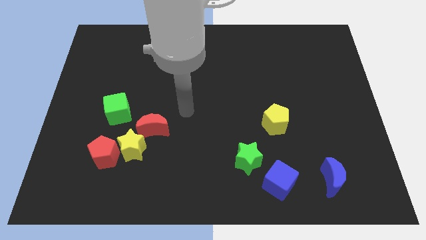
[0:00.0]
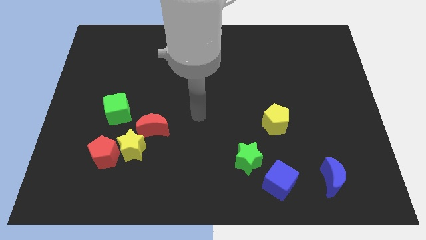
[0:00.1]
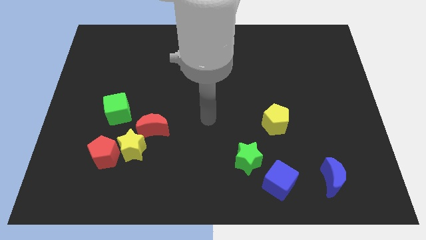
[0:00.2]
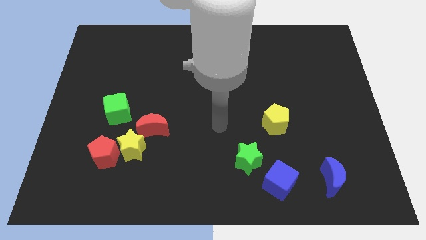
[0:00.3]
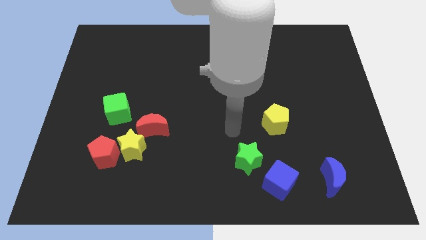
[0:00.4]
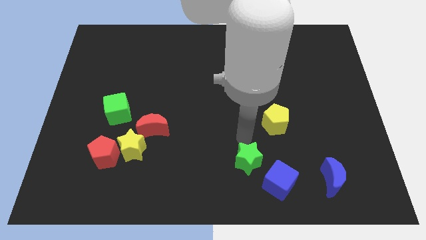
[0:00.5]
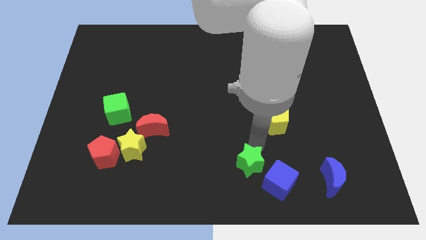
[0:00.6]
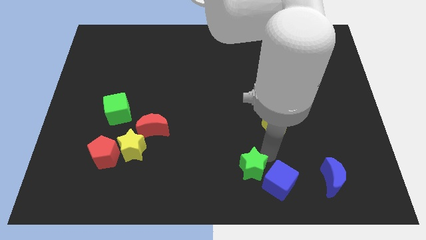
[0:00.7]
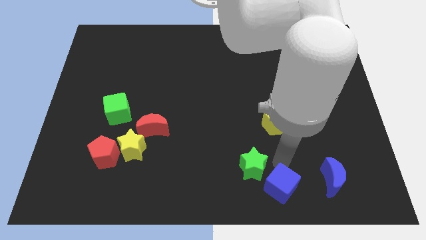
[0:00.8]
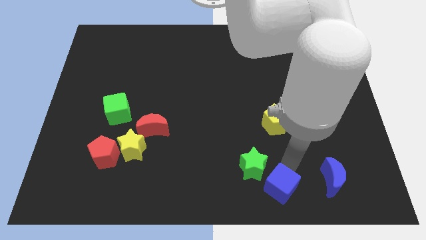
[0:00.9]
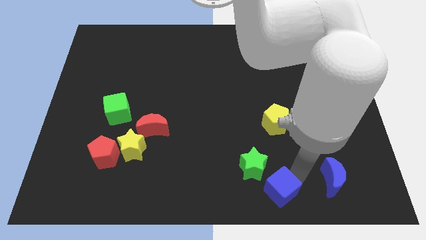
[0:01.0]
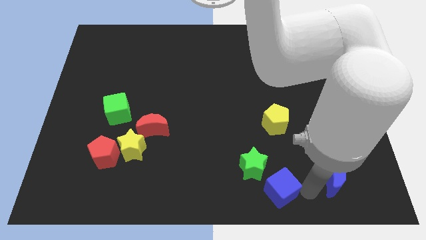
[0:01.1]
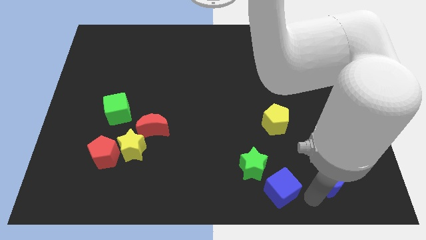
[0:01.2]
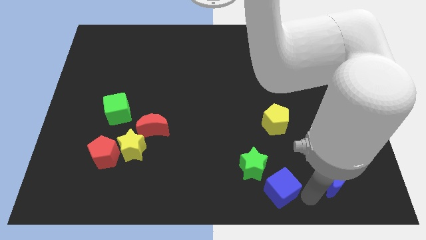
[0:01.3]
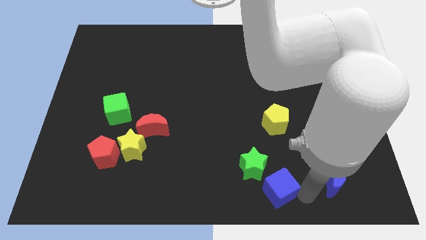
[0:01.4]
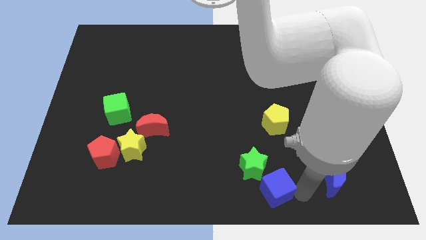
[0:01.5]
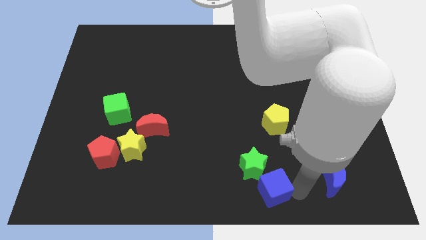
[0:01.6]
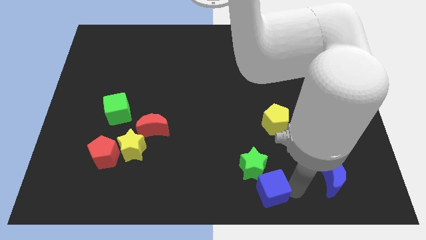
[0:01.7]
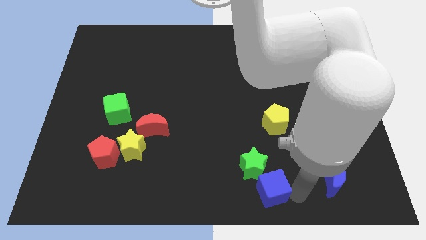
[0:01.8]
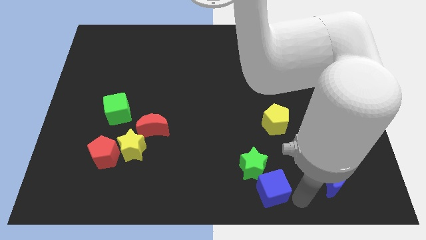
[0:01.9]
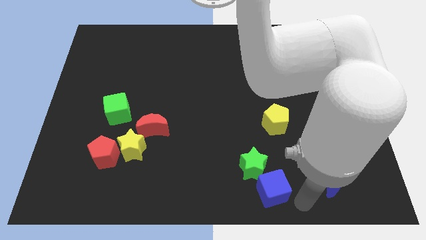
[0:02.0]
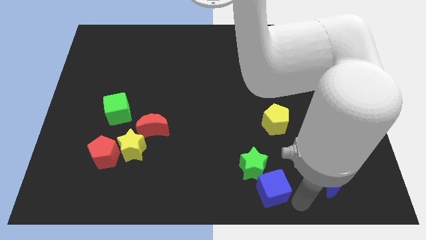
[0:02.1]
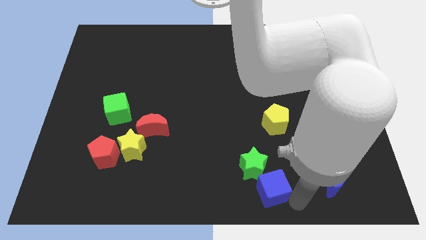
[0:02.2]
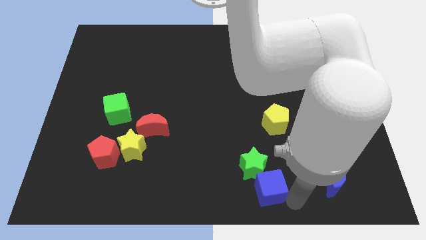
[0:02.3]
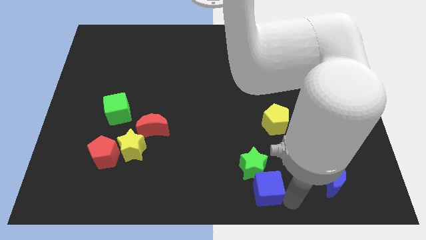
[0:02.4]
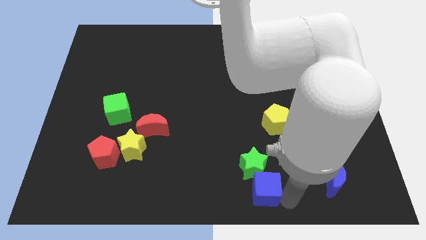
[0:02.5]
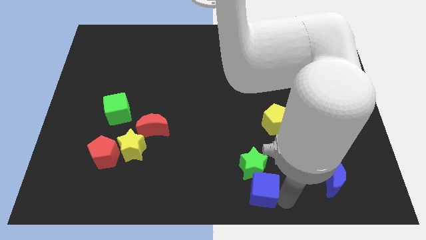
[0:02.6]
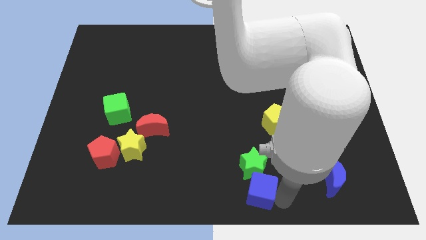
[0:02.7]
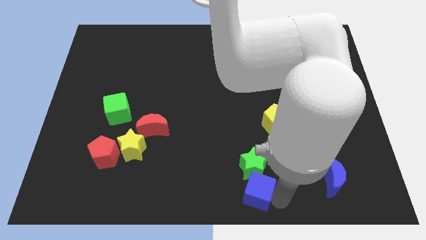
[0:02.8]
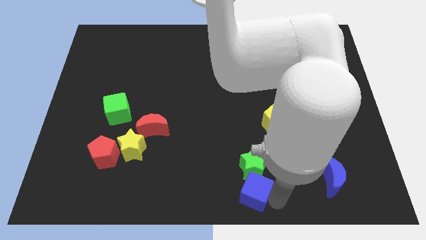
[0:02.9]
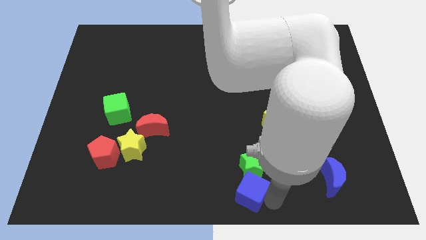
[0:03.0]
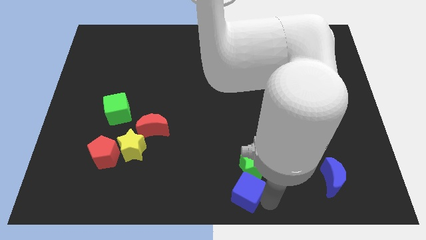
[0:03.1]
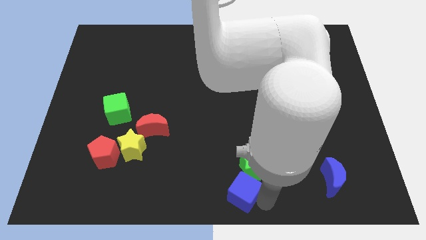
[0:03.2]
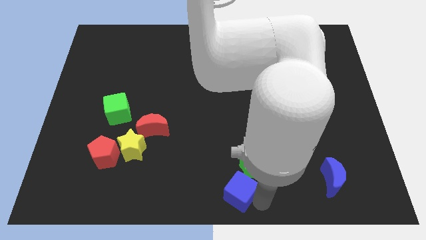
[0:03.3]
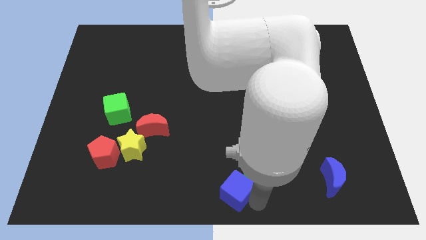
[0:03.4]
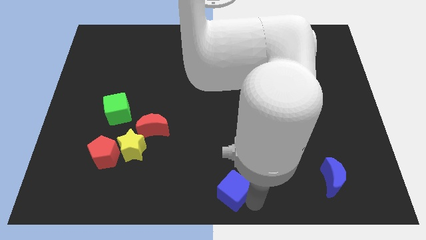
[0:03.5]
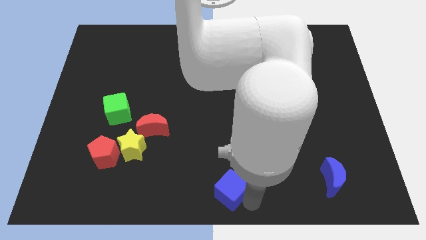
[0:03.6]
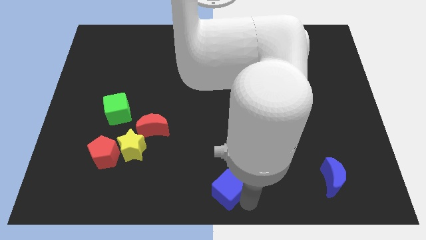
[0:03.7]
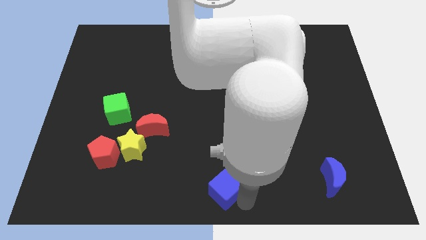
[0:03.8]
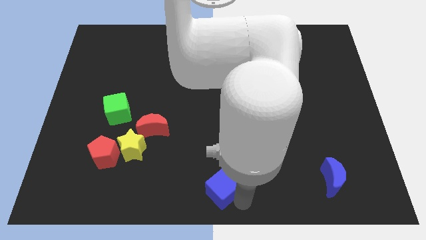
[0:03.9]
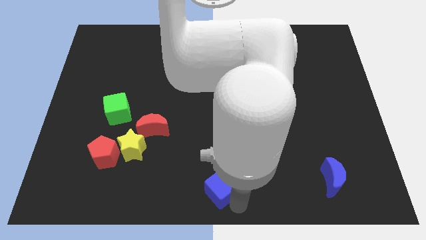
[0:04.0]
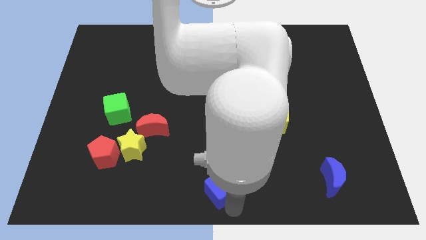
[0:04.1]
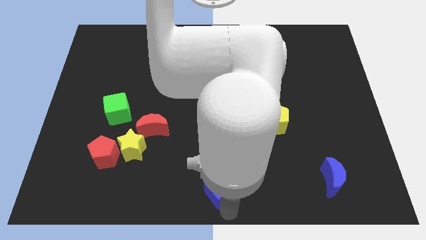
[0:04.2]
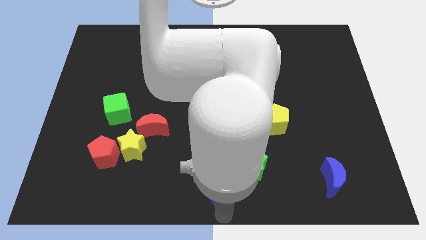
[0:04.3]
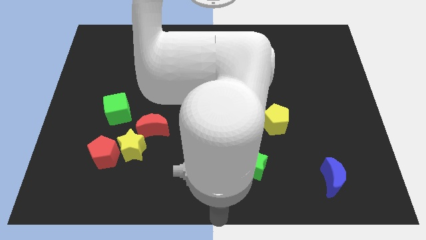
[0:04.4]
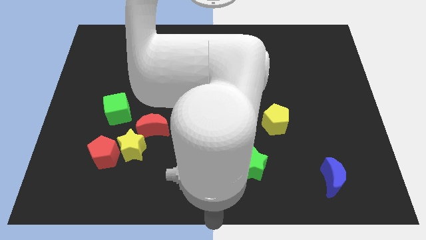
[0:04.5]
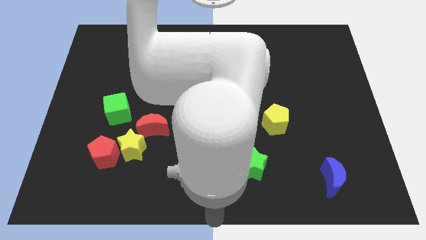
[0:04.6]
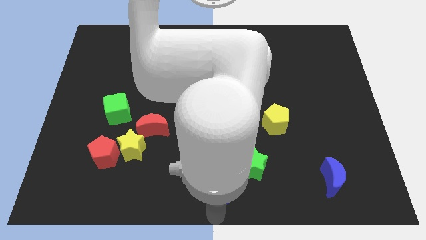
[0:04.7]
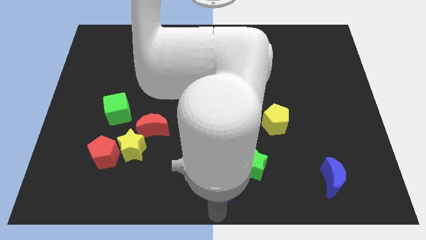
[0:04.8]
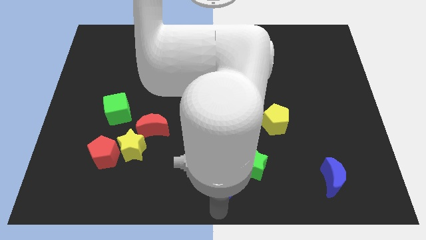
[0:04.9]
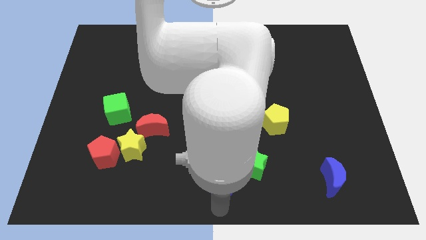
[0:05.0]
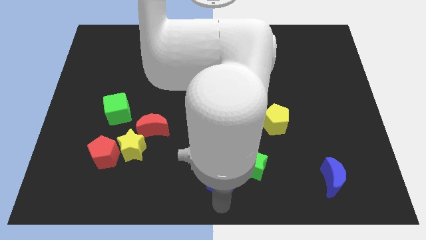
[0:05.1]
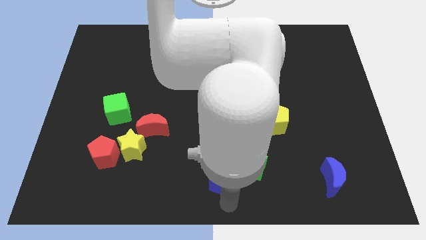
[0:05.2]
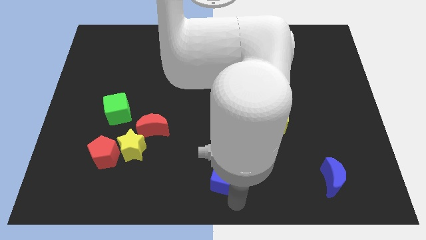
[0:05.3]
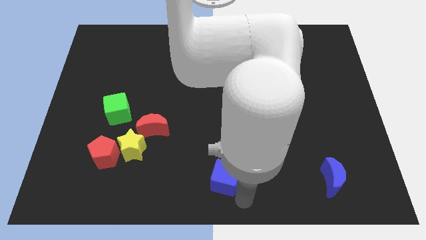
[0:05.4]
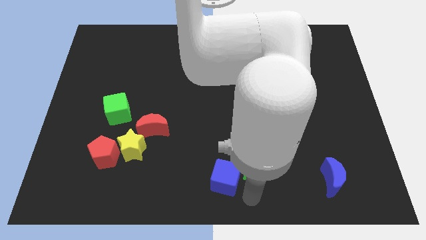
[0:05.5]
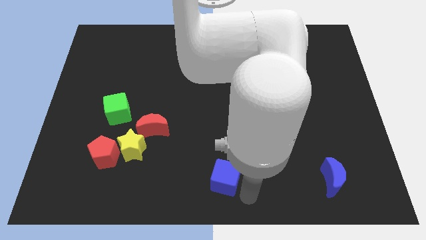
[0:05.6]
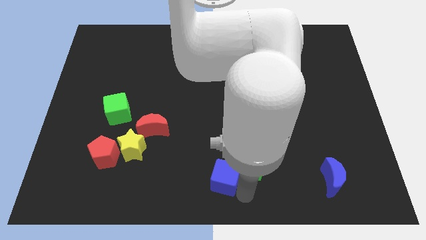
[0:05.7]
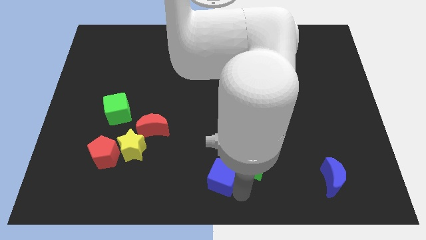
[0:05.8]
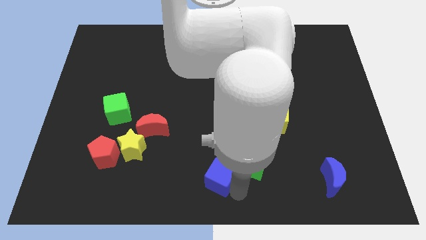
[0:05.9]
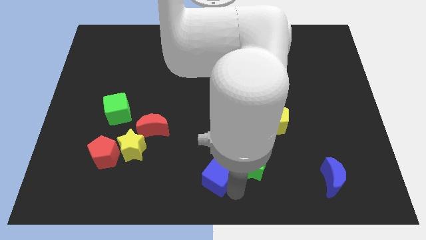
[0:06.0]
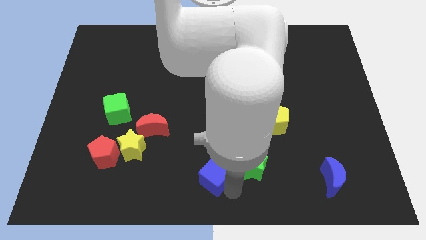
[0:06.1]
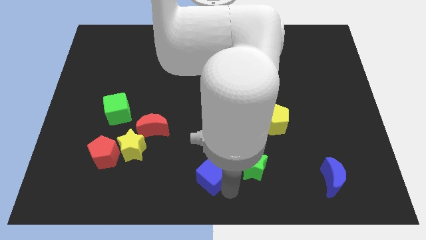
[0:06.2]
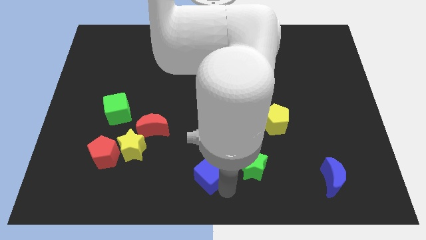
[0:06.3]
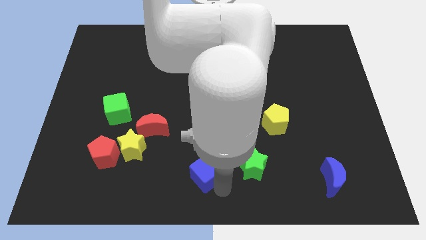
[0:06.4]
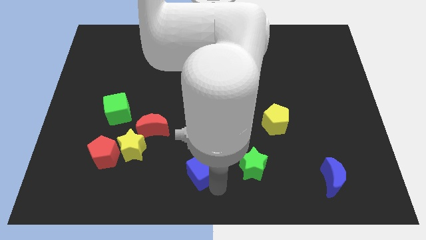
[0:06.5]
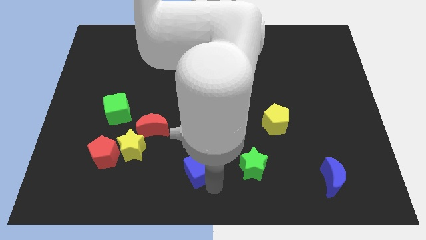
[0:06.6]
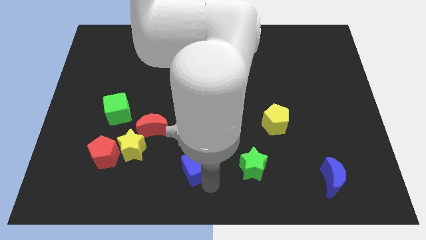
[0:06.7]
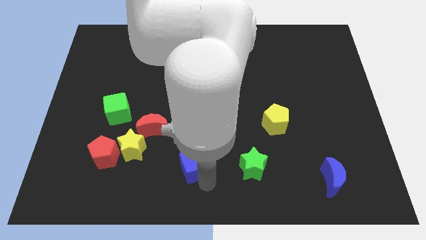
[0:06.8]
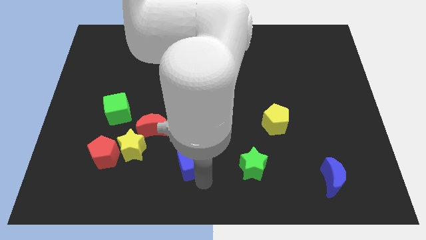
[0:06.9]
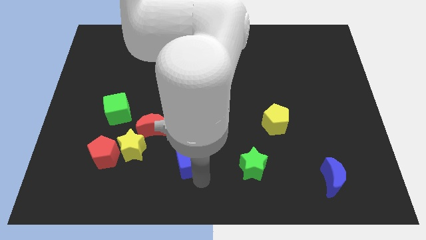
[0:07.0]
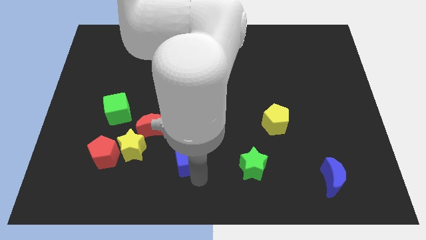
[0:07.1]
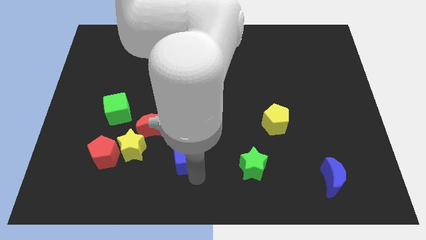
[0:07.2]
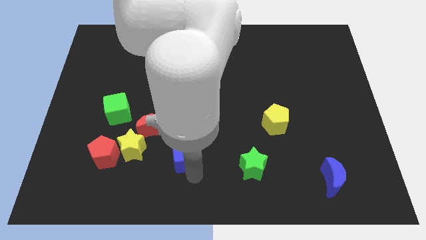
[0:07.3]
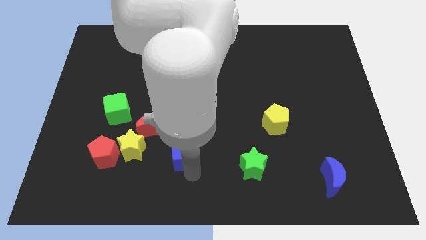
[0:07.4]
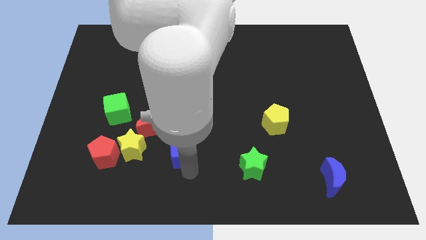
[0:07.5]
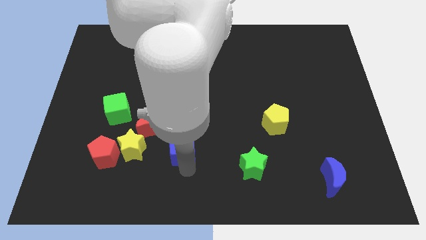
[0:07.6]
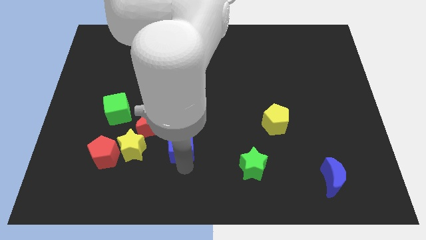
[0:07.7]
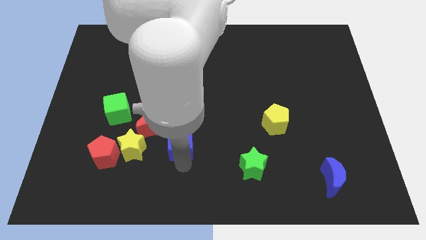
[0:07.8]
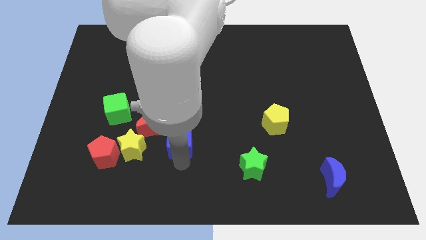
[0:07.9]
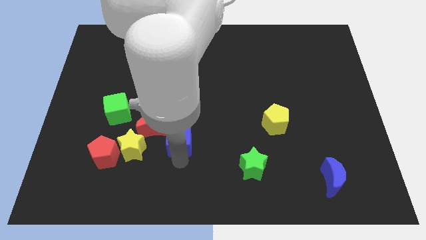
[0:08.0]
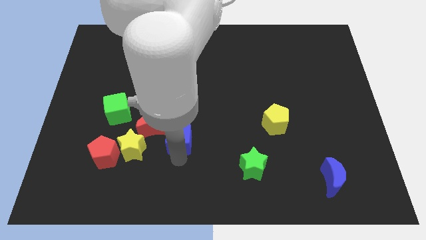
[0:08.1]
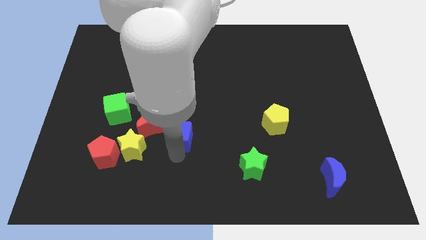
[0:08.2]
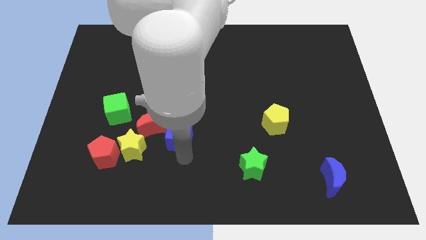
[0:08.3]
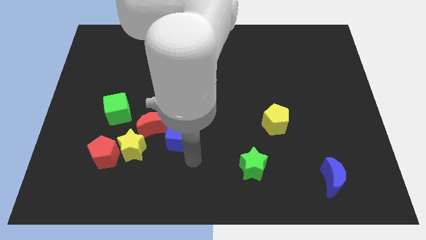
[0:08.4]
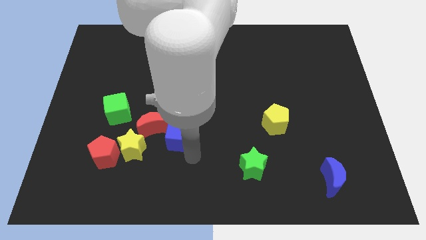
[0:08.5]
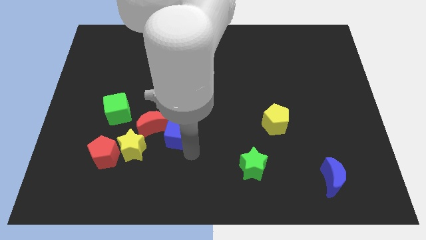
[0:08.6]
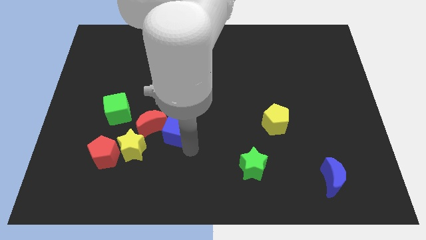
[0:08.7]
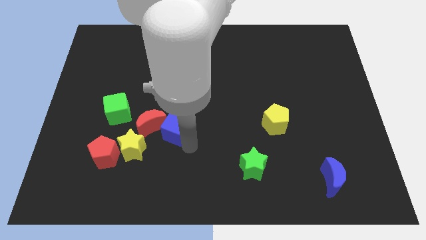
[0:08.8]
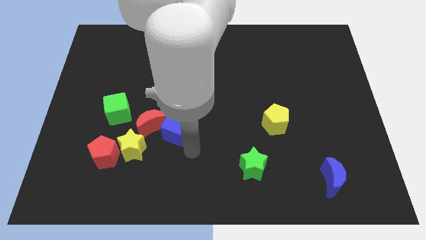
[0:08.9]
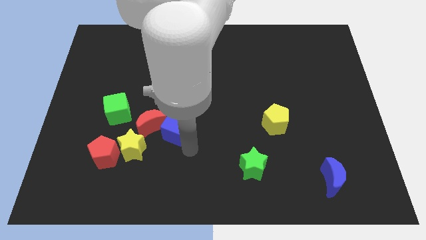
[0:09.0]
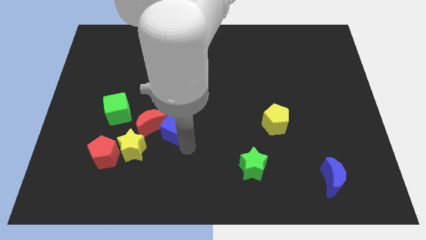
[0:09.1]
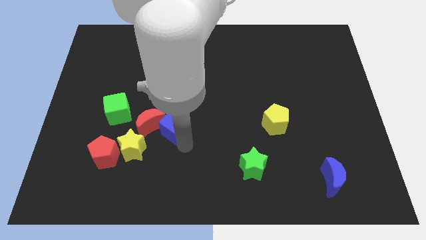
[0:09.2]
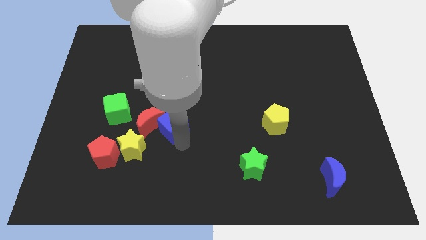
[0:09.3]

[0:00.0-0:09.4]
slide the blue cube to the right of the green cube
